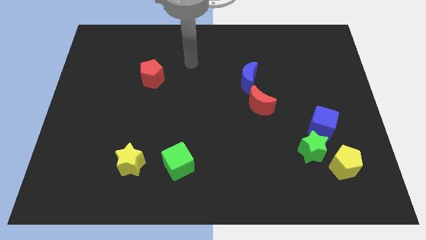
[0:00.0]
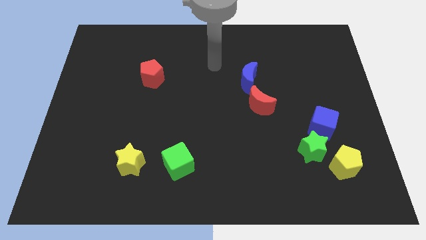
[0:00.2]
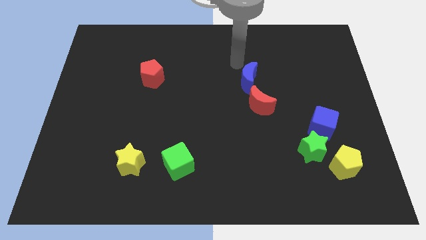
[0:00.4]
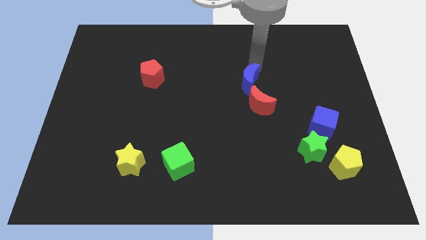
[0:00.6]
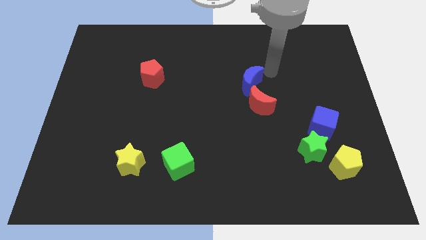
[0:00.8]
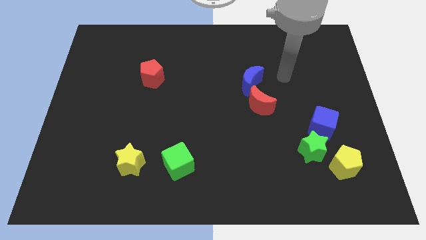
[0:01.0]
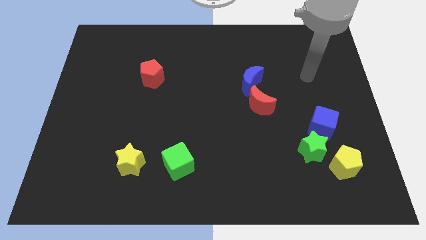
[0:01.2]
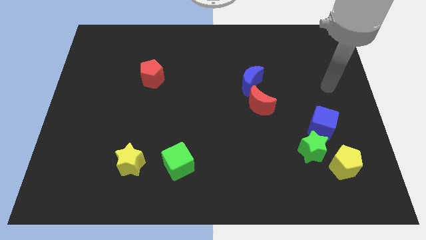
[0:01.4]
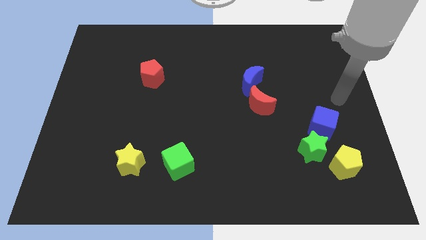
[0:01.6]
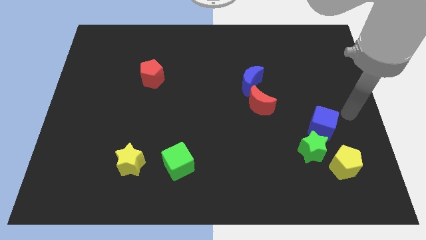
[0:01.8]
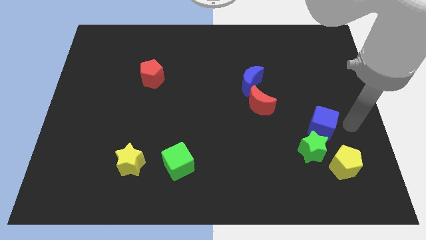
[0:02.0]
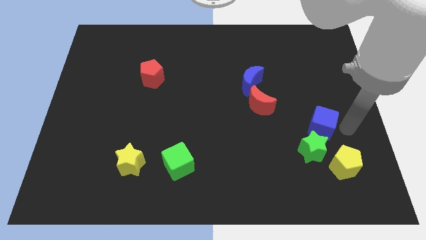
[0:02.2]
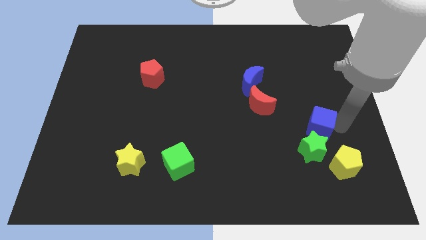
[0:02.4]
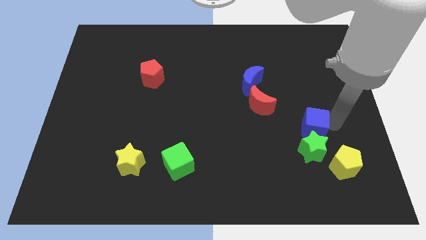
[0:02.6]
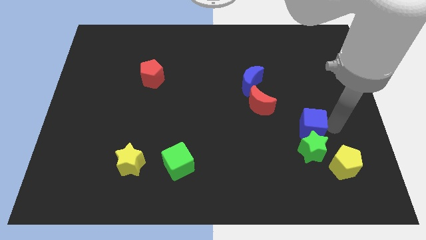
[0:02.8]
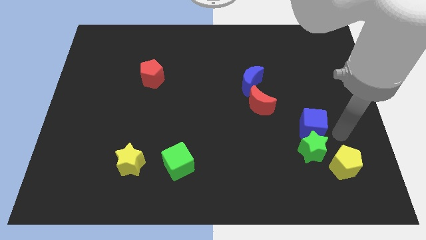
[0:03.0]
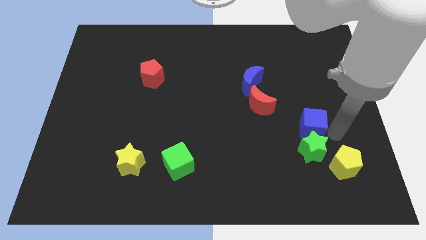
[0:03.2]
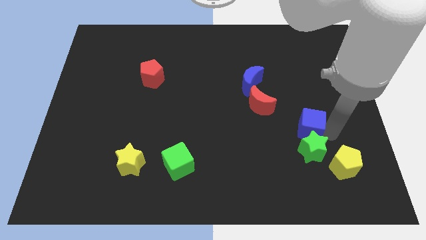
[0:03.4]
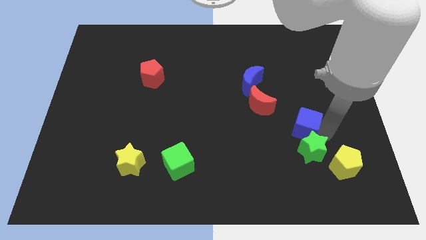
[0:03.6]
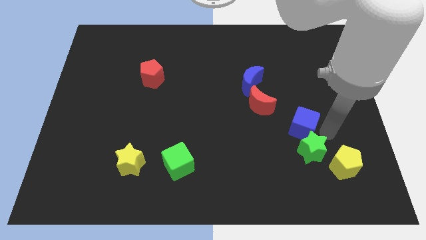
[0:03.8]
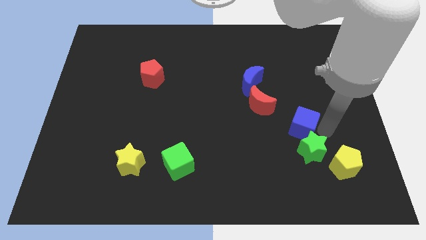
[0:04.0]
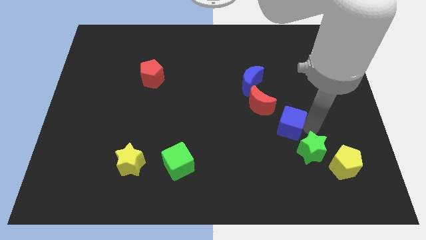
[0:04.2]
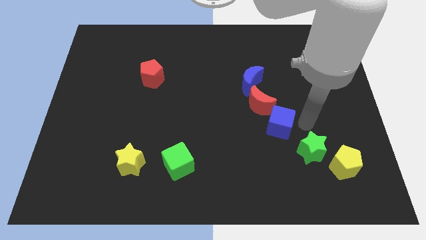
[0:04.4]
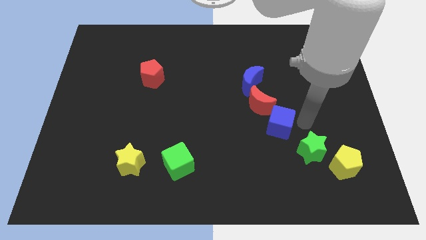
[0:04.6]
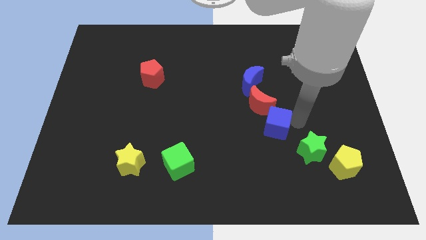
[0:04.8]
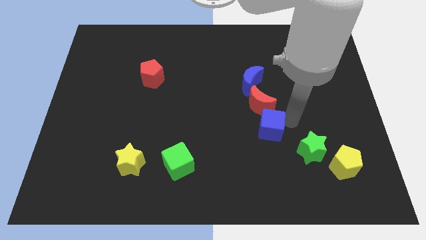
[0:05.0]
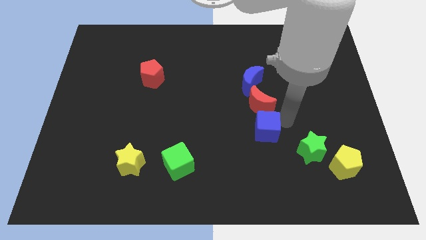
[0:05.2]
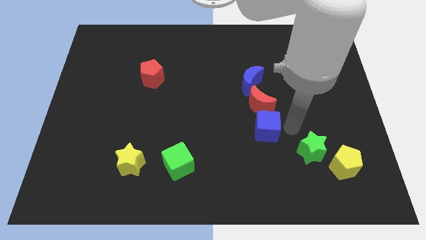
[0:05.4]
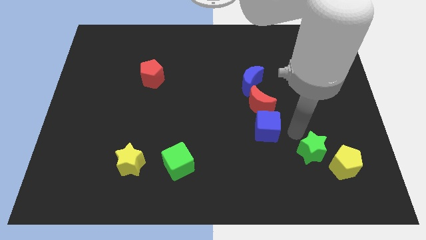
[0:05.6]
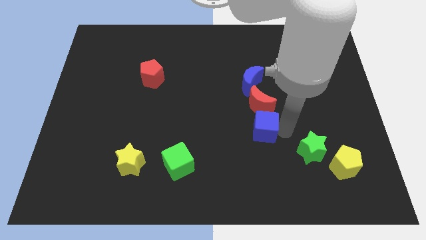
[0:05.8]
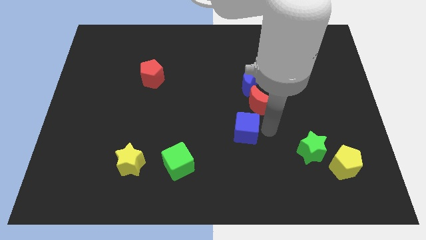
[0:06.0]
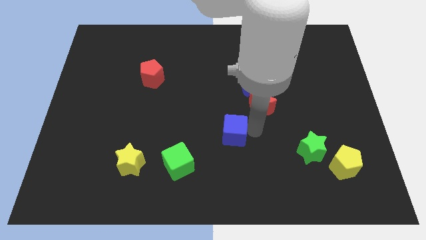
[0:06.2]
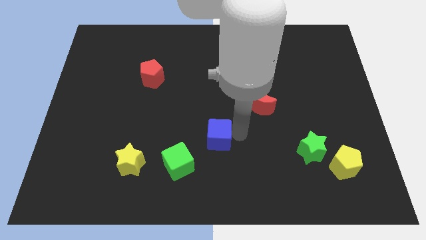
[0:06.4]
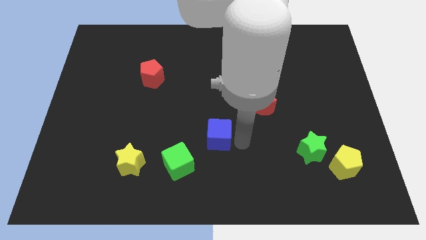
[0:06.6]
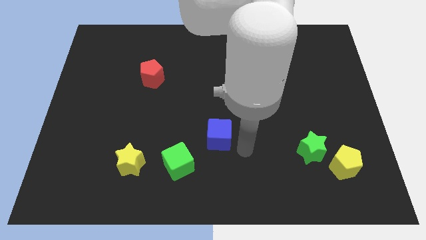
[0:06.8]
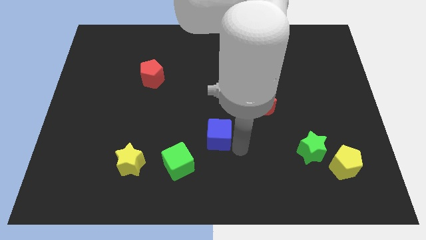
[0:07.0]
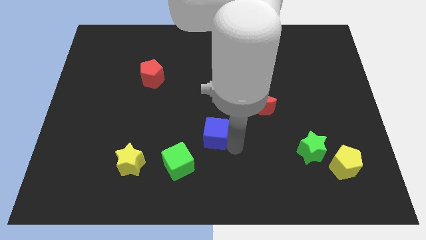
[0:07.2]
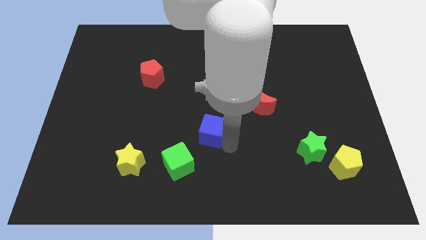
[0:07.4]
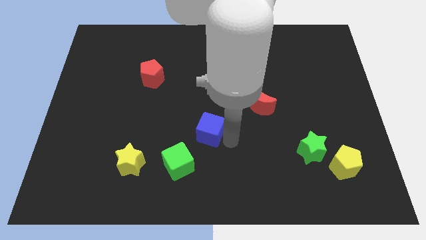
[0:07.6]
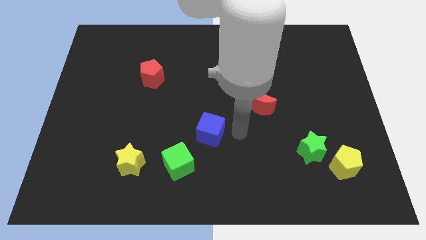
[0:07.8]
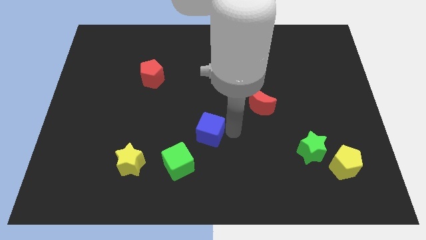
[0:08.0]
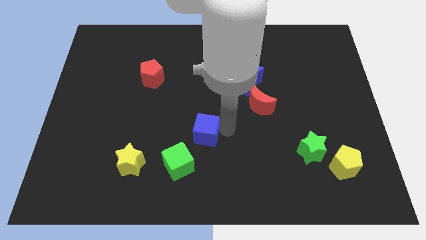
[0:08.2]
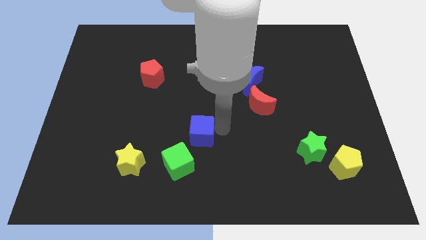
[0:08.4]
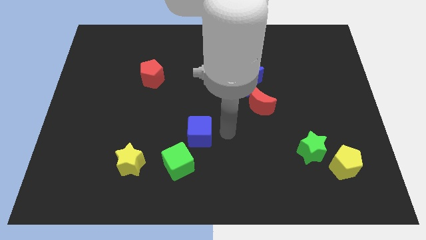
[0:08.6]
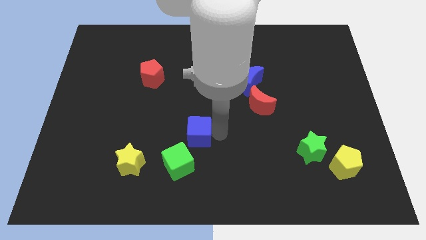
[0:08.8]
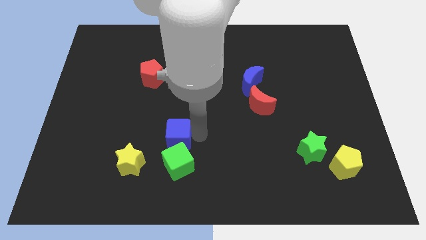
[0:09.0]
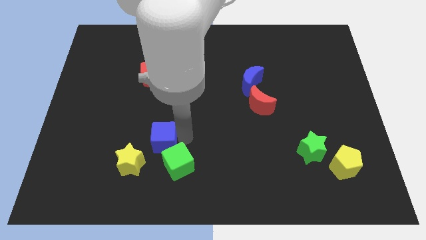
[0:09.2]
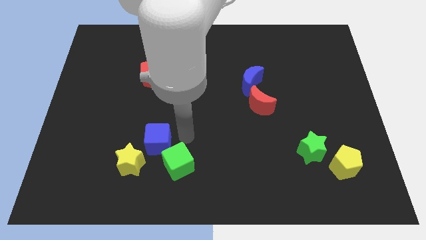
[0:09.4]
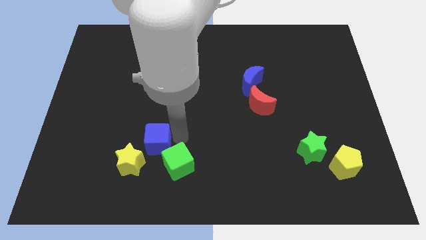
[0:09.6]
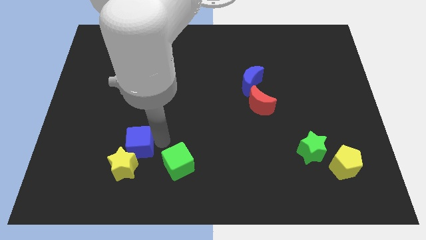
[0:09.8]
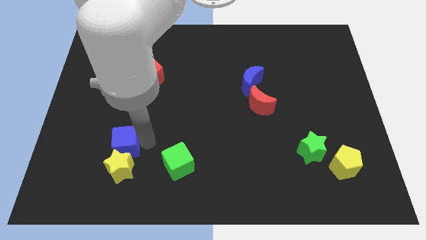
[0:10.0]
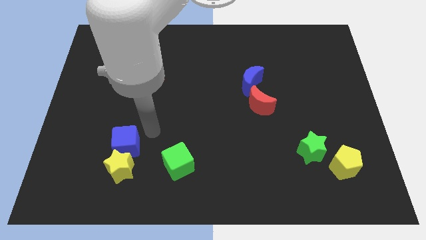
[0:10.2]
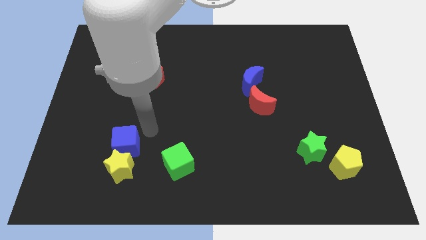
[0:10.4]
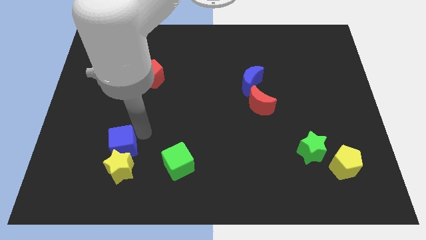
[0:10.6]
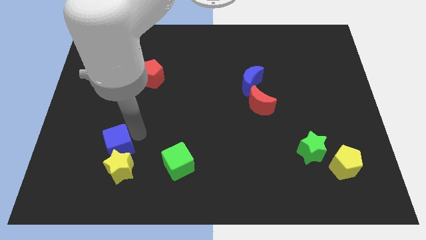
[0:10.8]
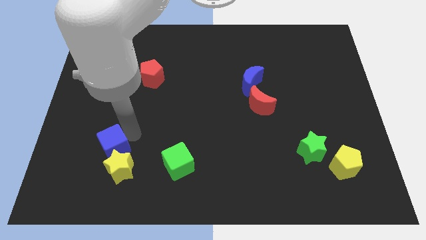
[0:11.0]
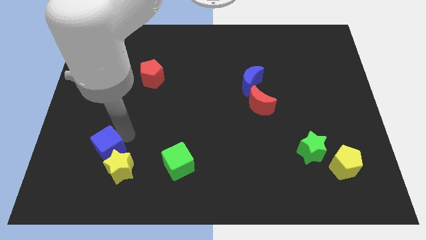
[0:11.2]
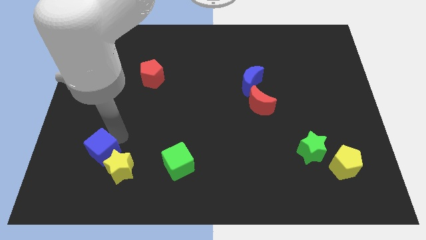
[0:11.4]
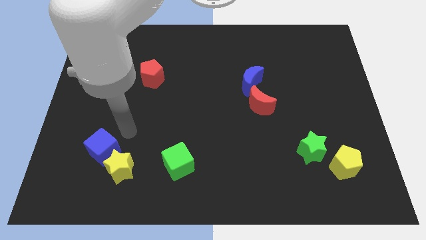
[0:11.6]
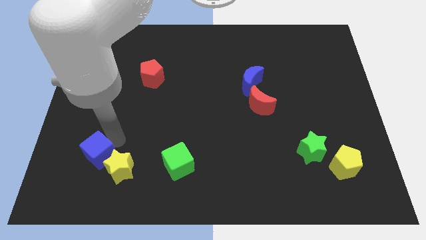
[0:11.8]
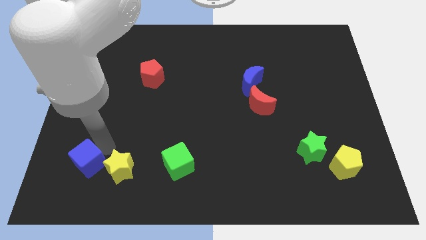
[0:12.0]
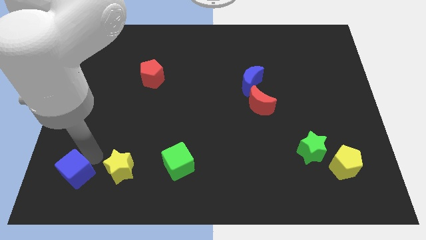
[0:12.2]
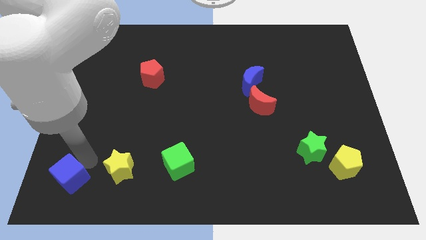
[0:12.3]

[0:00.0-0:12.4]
move the blue cube to the bottom left corner

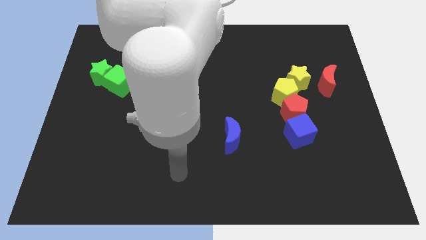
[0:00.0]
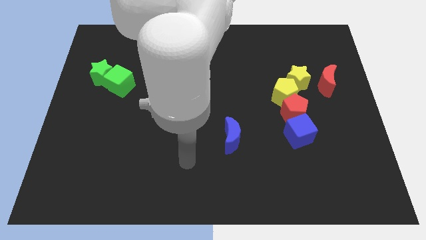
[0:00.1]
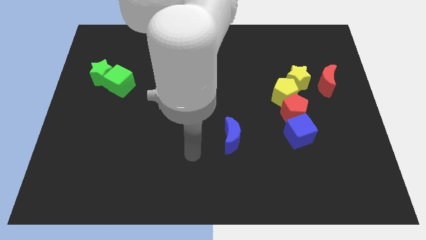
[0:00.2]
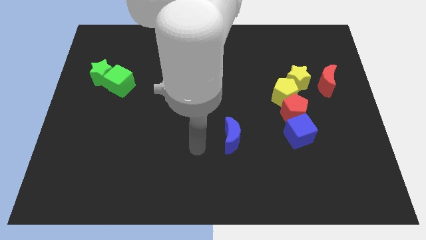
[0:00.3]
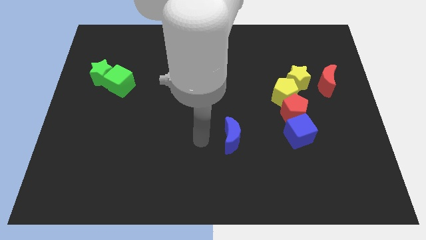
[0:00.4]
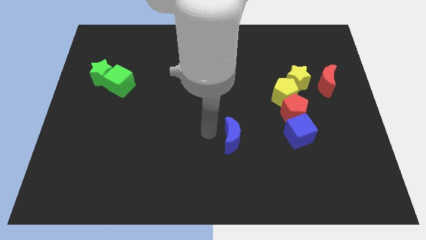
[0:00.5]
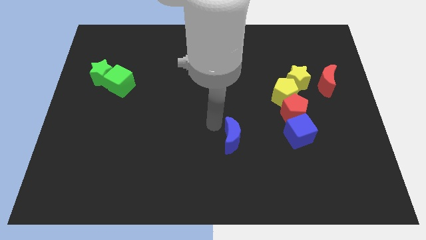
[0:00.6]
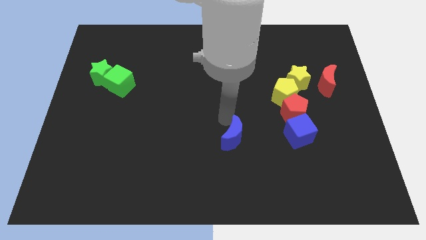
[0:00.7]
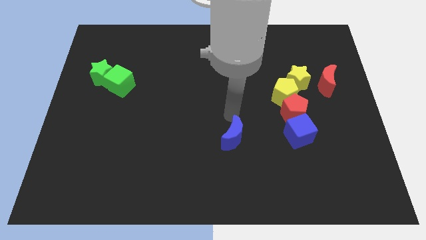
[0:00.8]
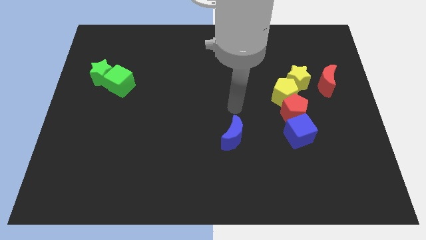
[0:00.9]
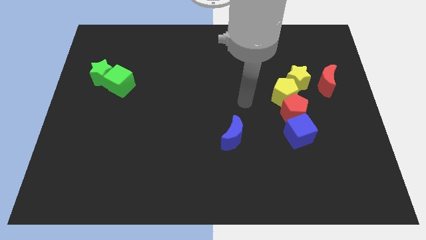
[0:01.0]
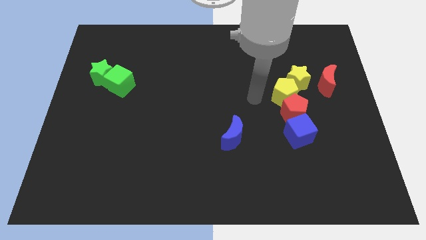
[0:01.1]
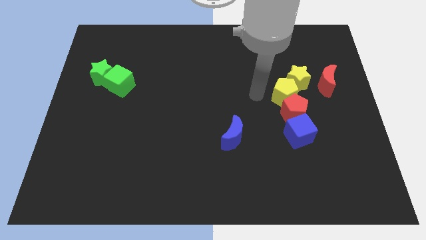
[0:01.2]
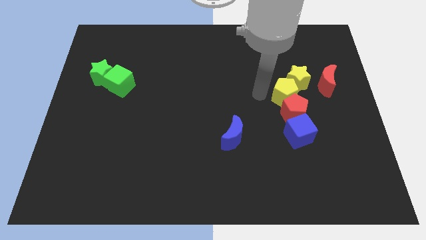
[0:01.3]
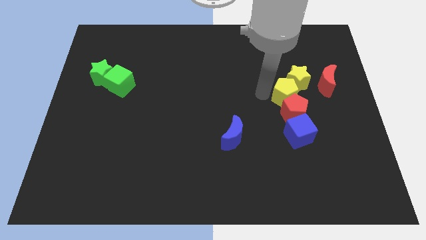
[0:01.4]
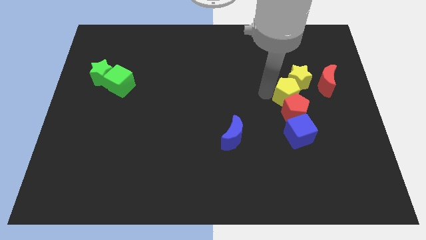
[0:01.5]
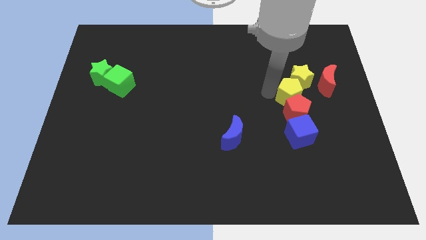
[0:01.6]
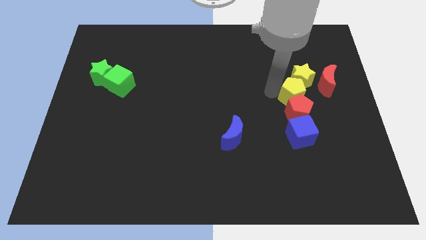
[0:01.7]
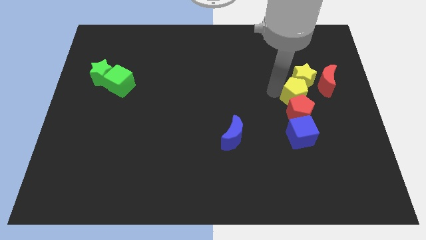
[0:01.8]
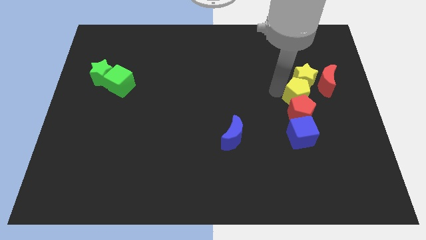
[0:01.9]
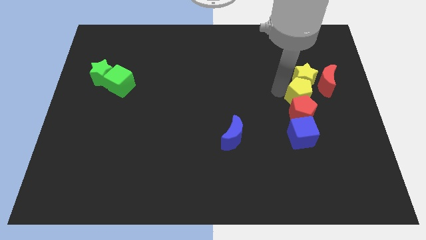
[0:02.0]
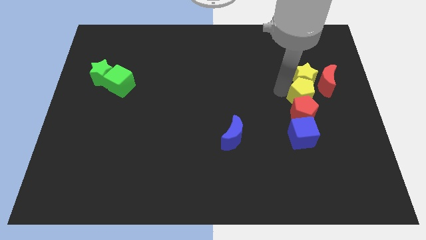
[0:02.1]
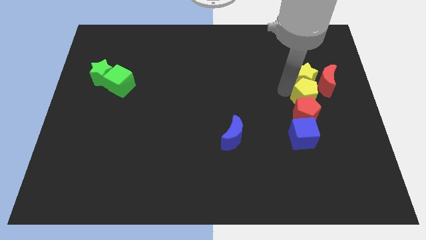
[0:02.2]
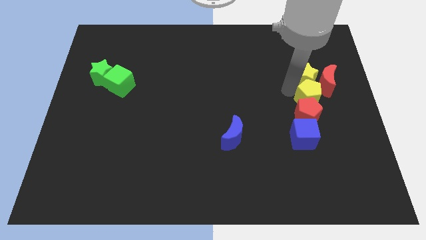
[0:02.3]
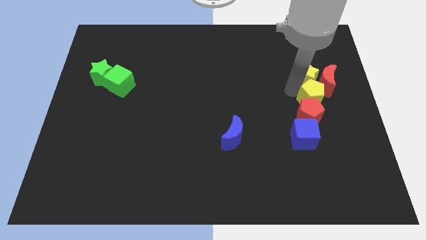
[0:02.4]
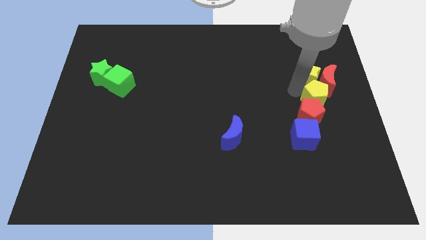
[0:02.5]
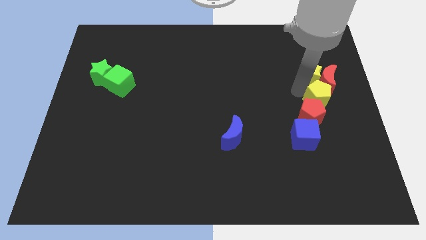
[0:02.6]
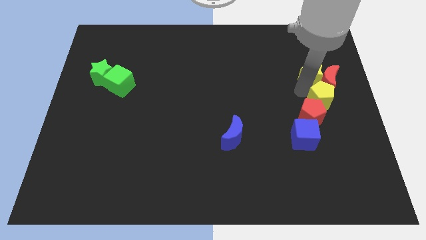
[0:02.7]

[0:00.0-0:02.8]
move the yellow pentagon to the right side of the board
